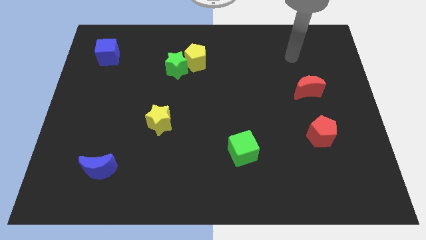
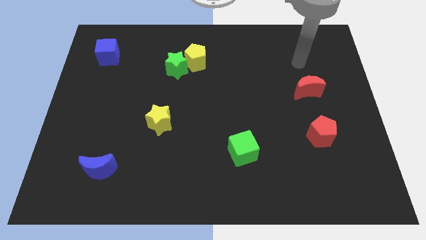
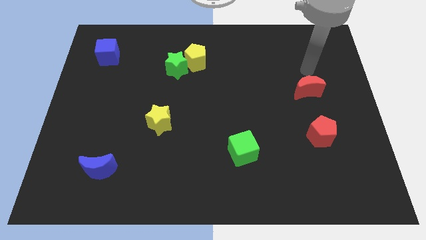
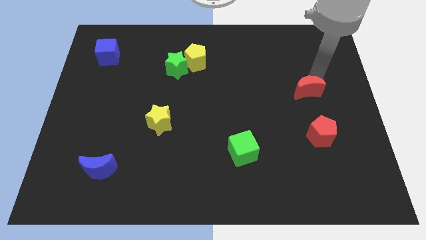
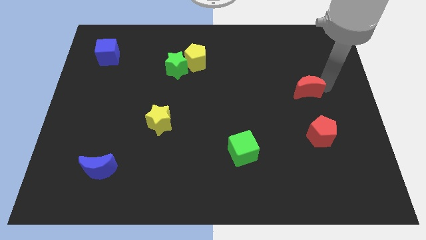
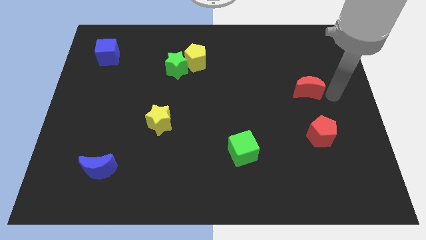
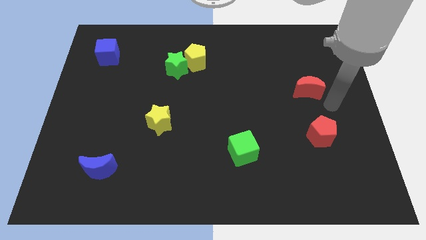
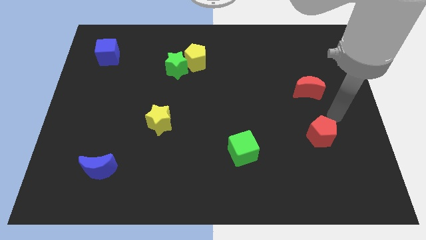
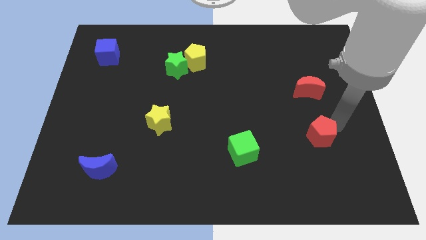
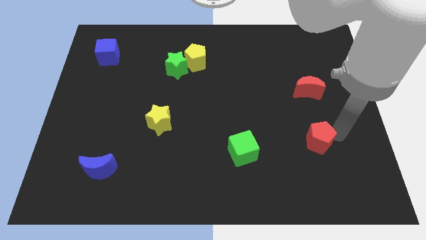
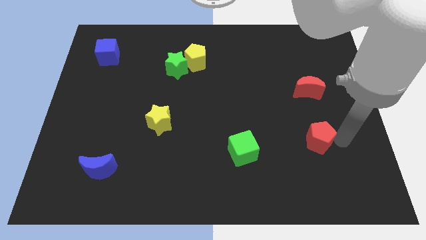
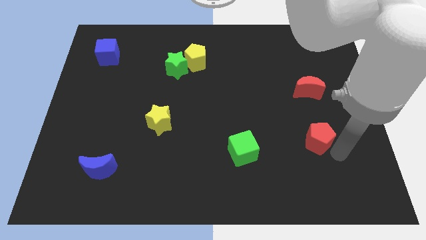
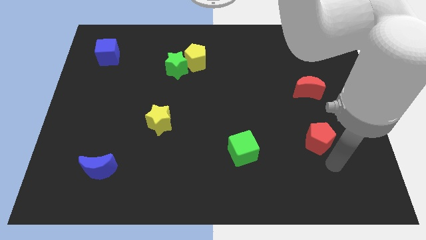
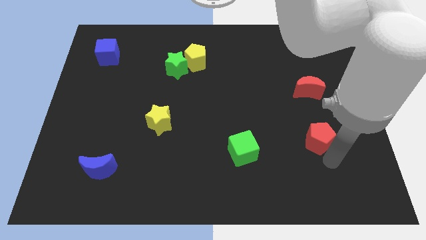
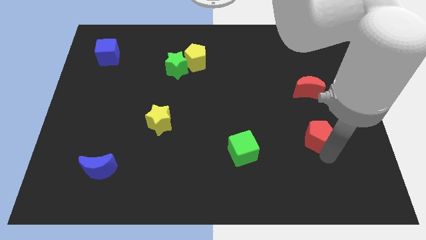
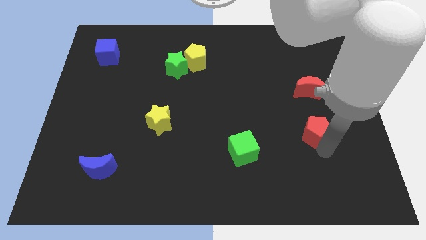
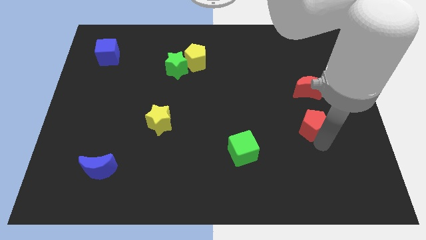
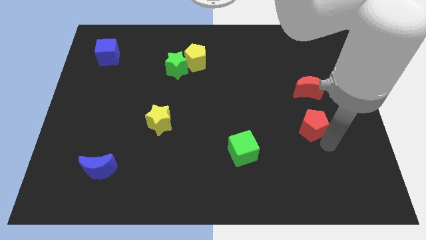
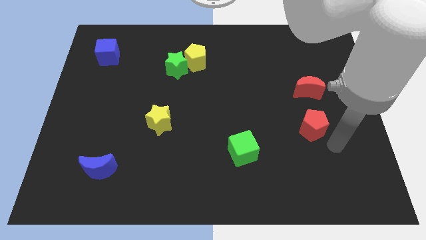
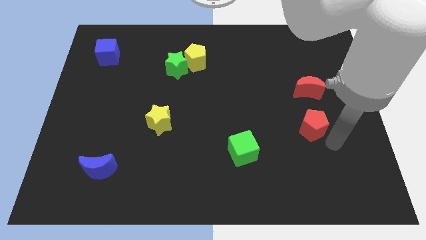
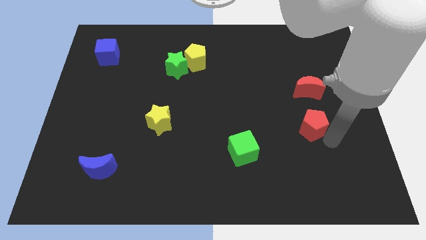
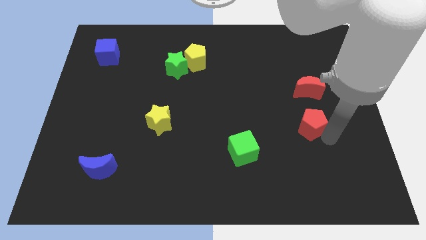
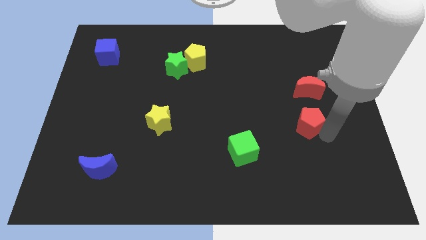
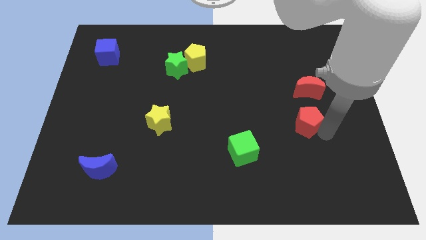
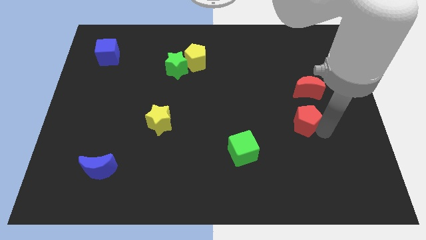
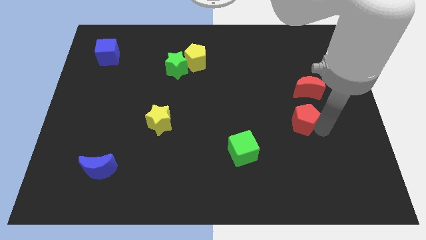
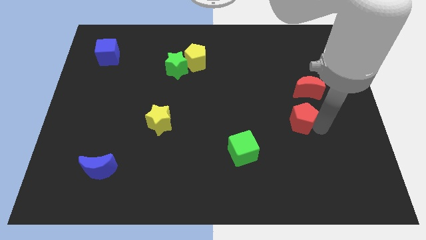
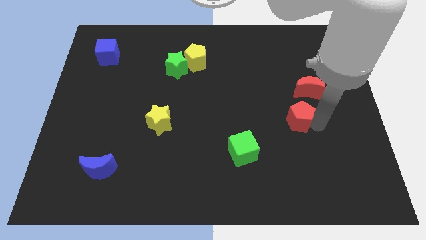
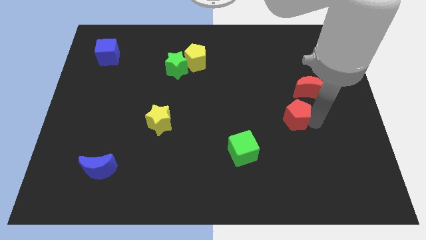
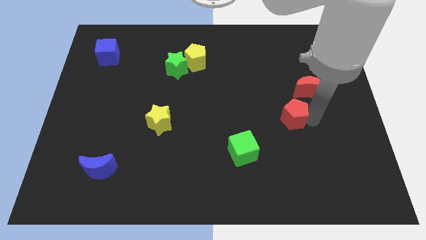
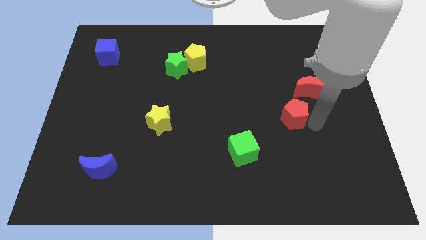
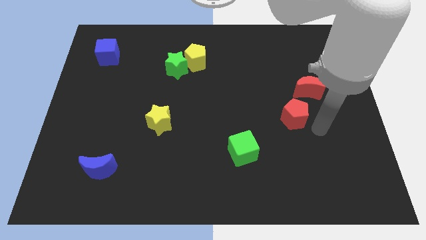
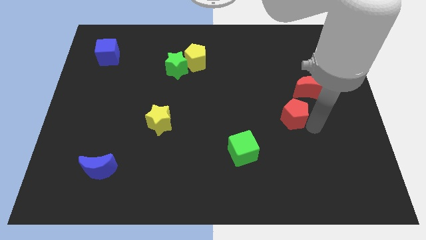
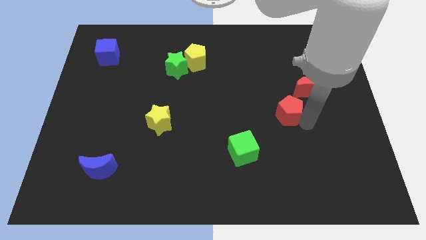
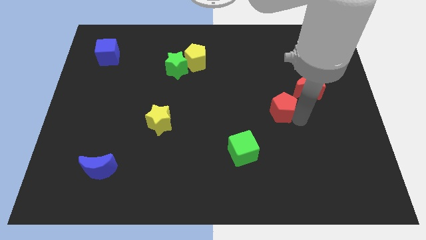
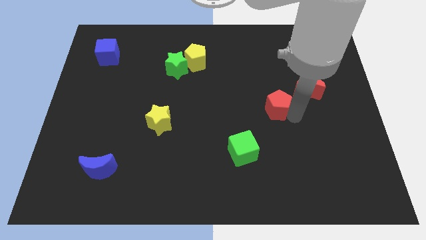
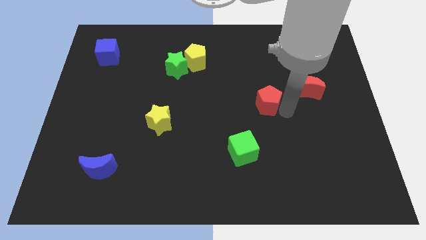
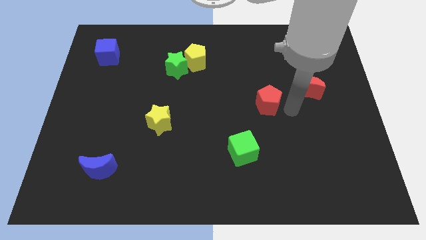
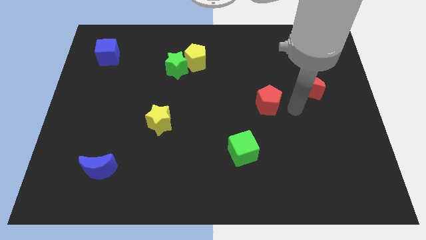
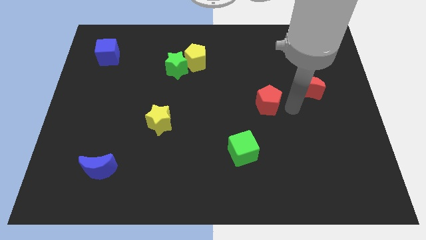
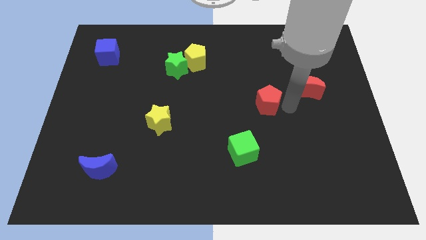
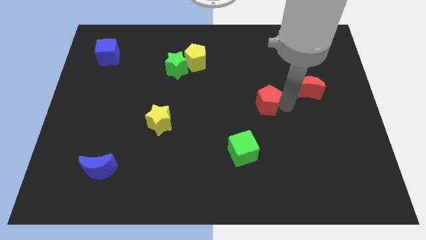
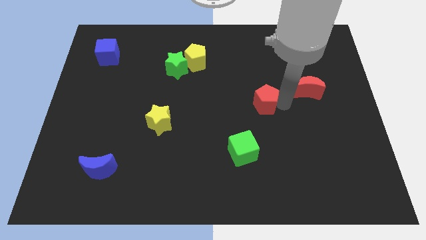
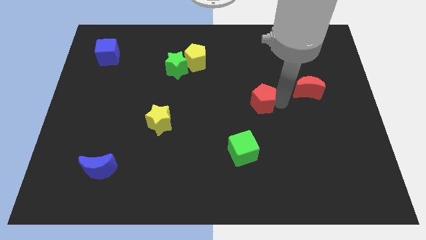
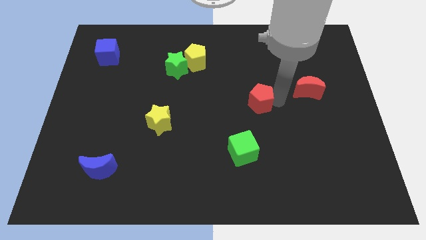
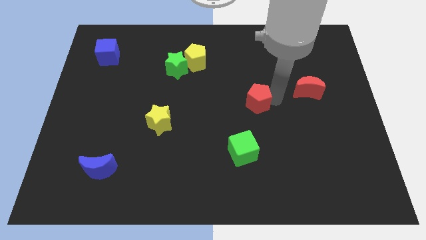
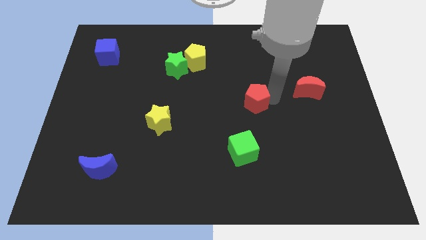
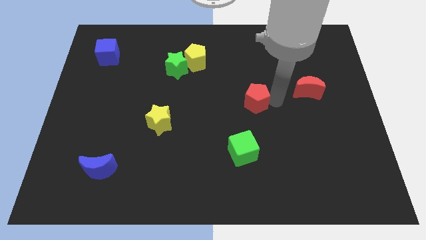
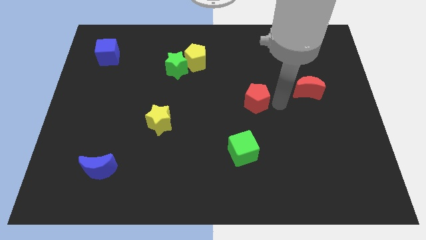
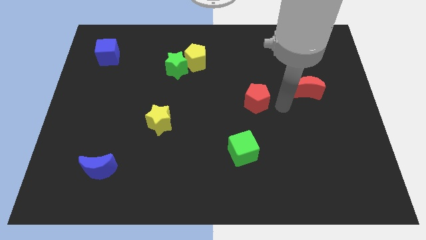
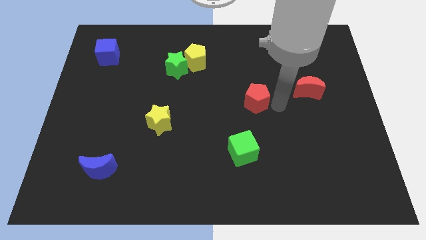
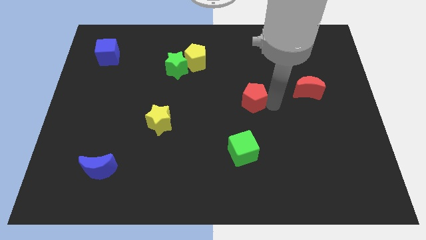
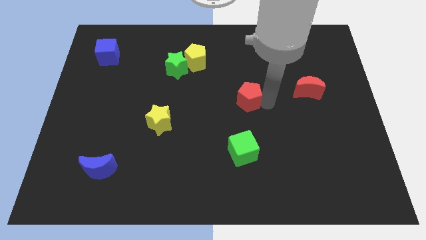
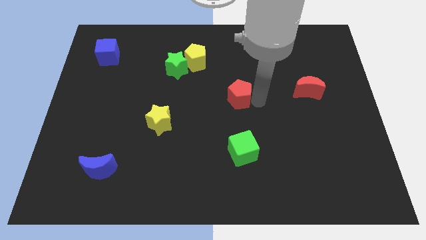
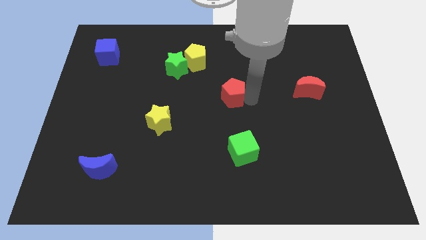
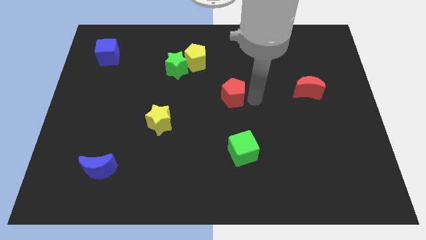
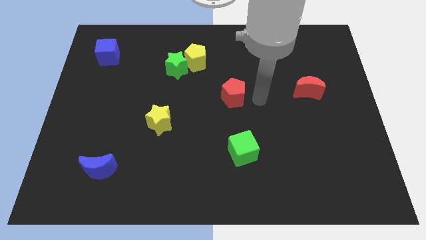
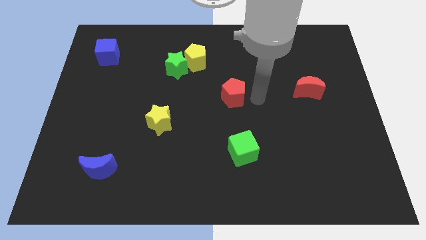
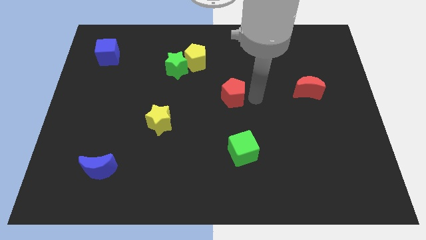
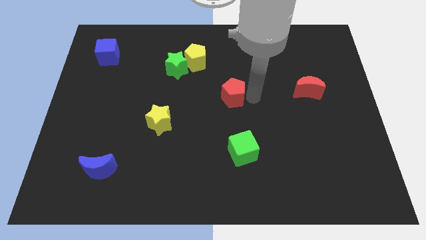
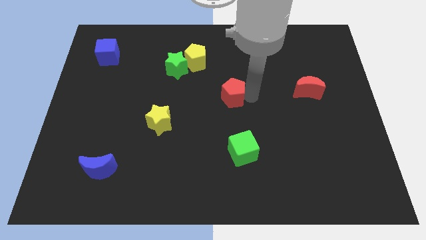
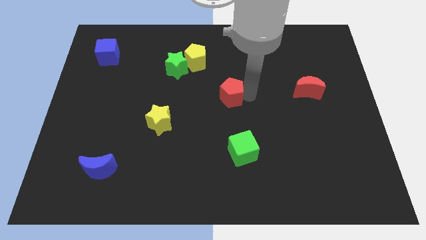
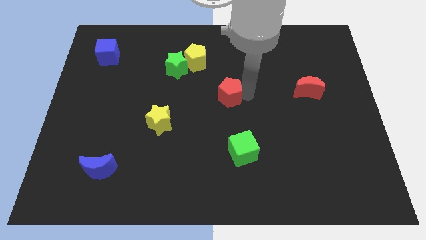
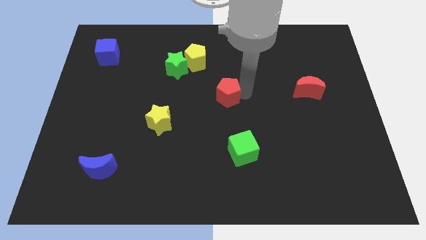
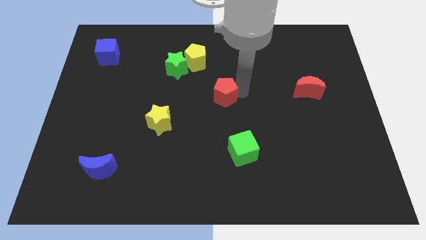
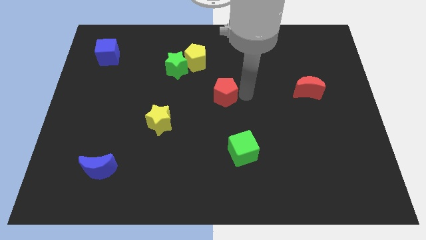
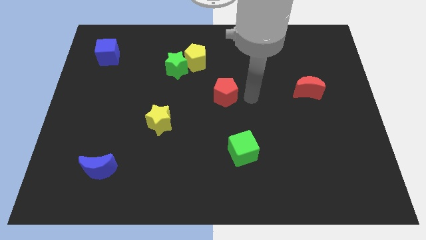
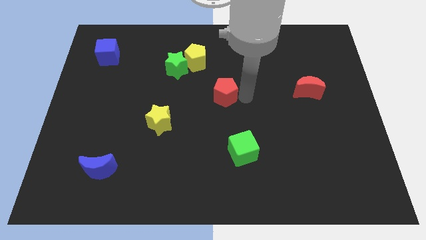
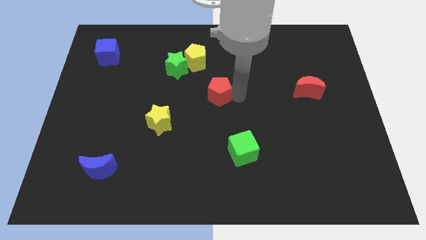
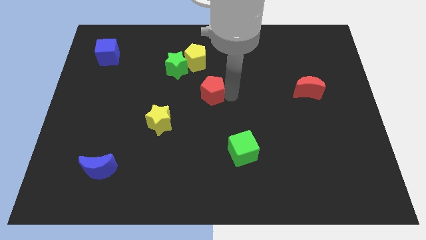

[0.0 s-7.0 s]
move the red pentagon below the yellow pentagon

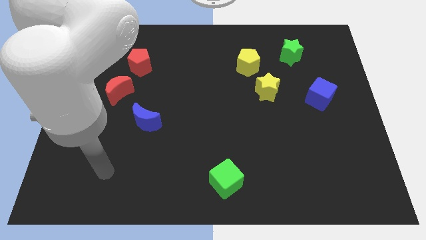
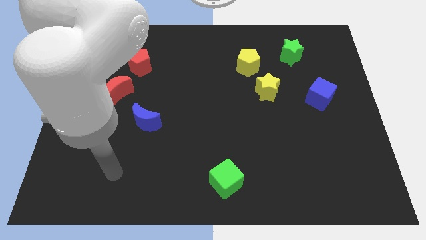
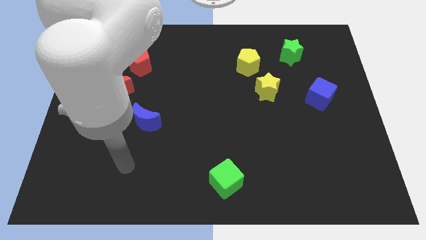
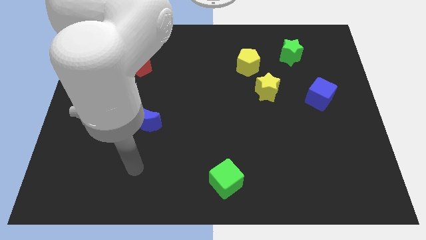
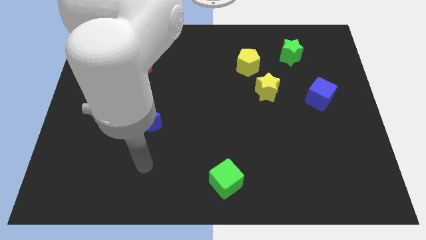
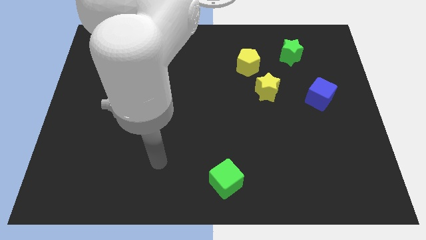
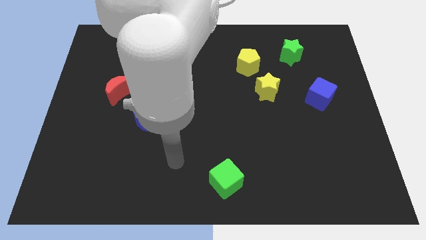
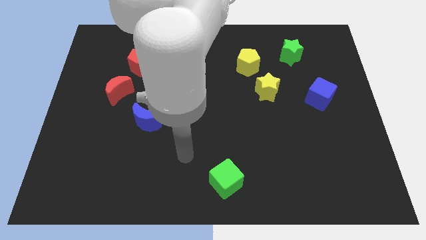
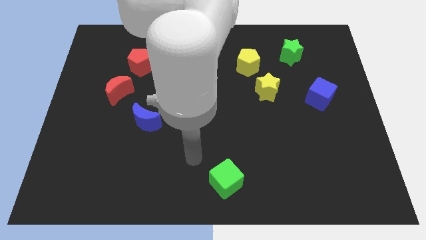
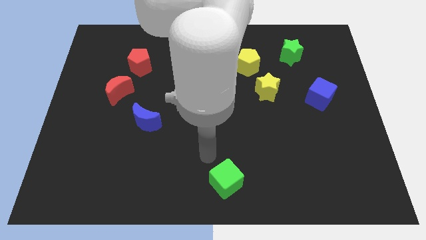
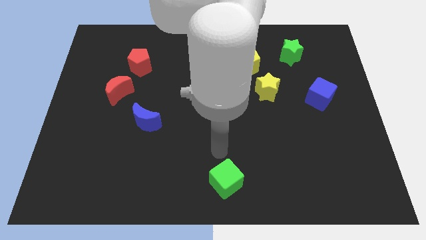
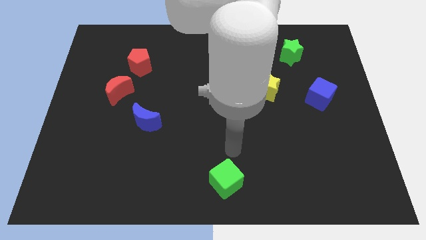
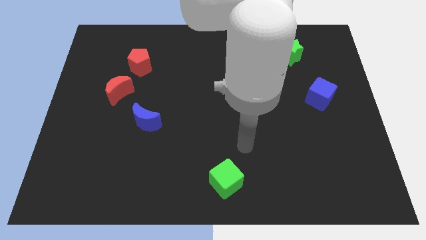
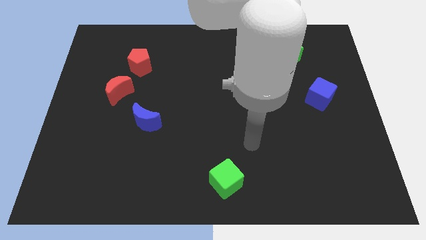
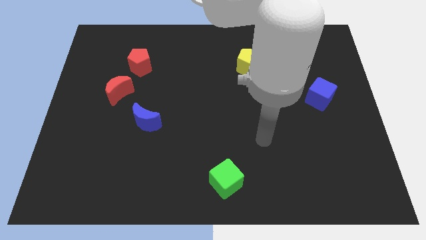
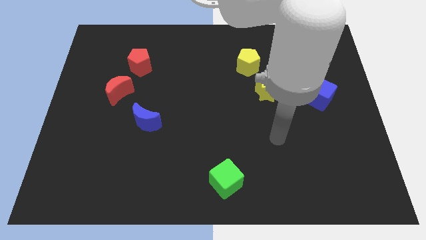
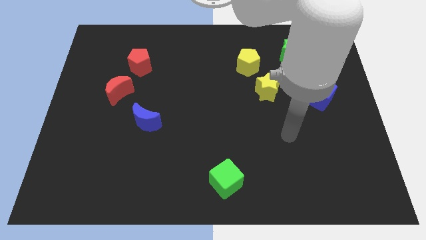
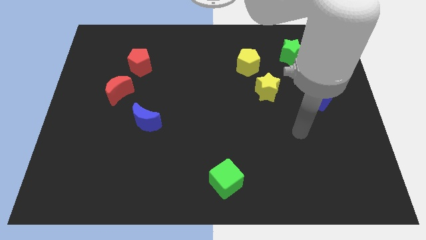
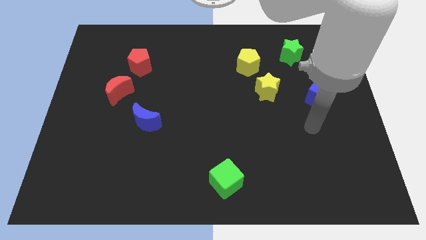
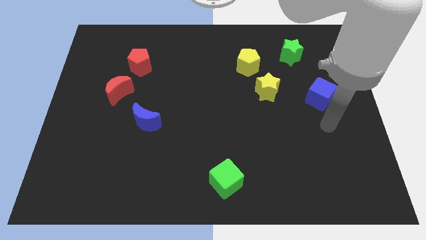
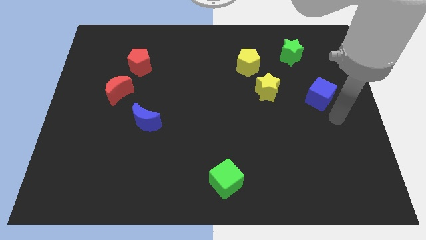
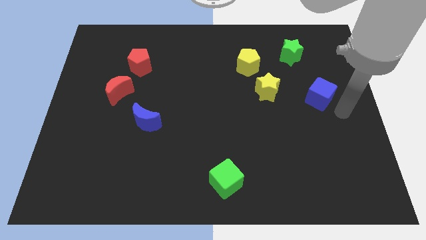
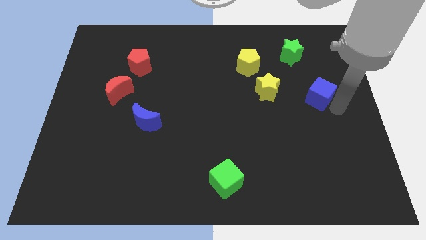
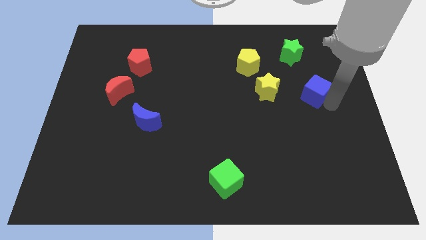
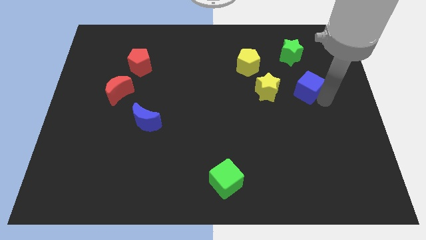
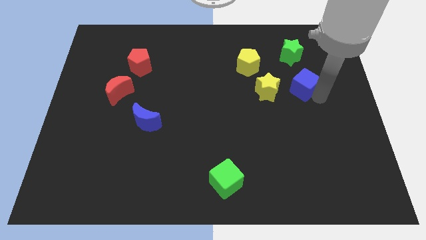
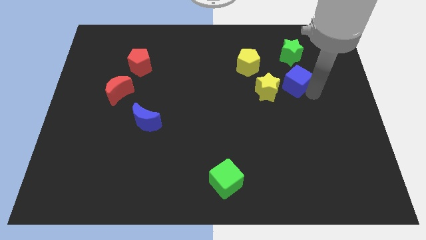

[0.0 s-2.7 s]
slide the blue cube to the top right of the yellow star
